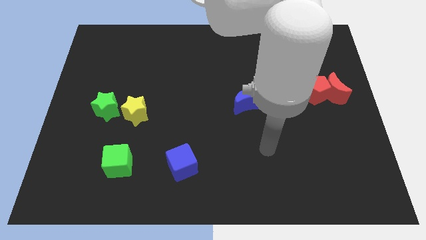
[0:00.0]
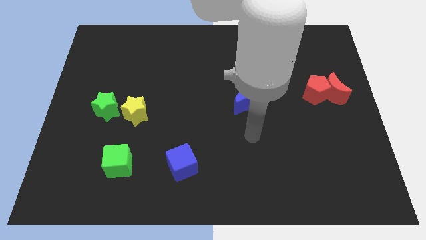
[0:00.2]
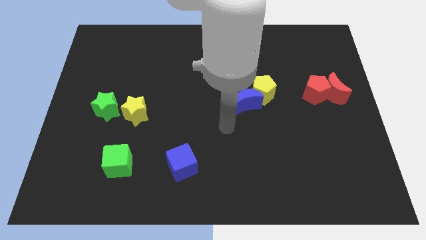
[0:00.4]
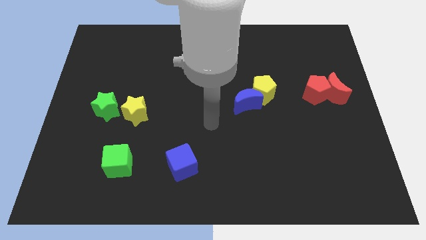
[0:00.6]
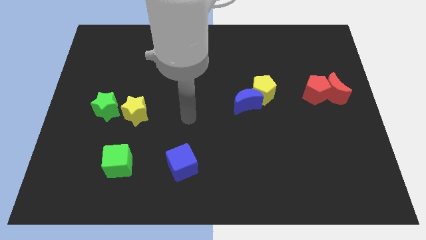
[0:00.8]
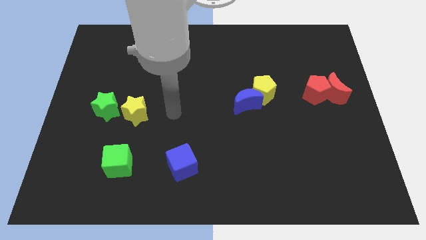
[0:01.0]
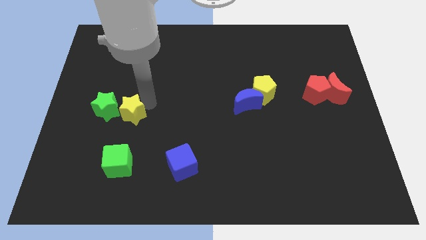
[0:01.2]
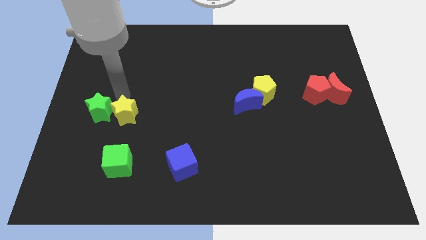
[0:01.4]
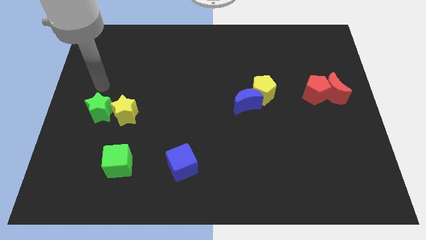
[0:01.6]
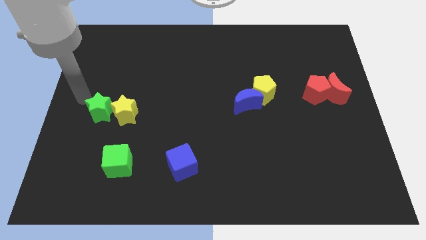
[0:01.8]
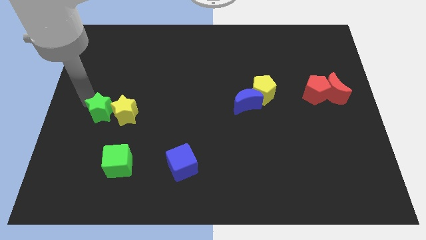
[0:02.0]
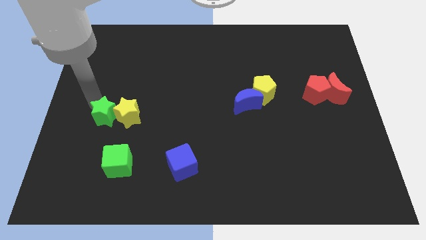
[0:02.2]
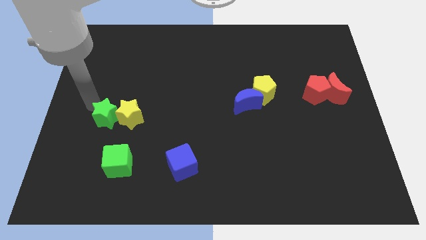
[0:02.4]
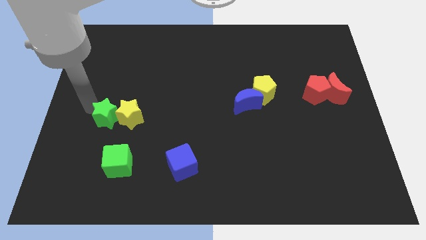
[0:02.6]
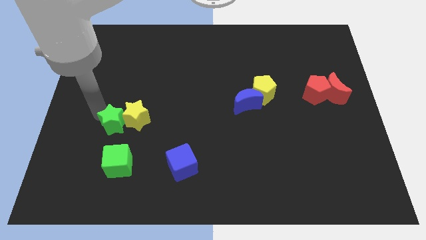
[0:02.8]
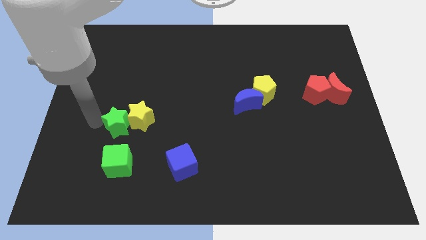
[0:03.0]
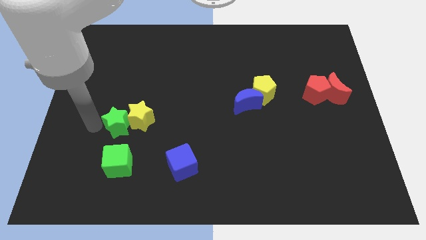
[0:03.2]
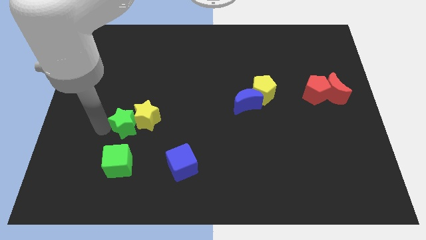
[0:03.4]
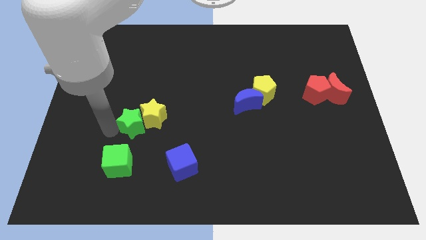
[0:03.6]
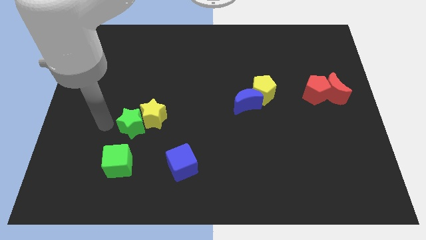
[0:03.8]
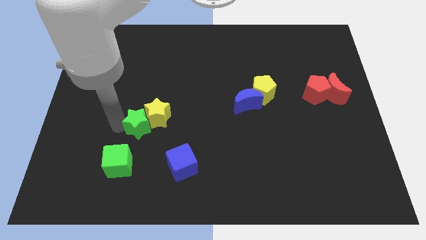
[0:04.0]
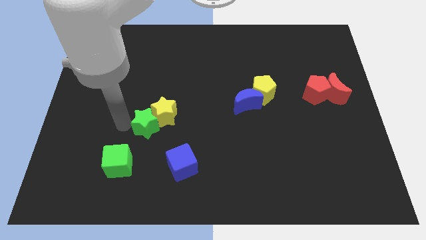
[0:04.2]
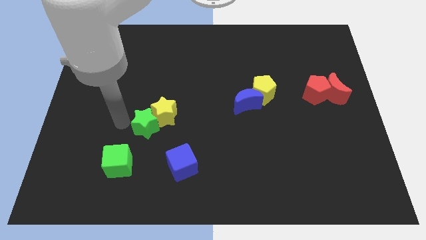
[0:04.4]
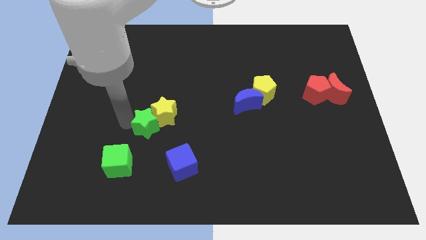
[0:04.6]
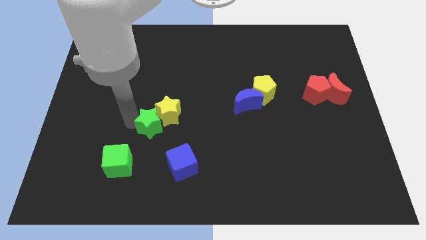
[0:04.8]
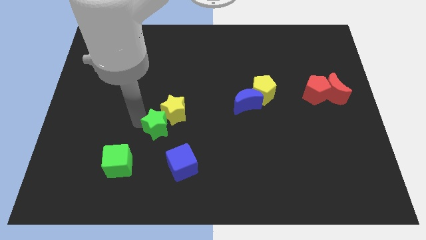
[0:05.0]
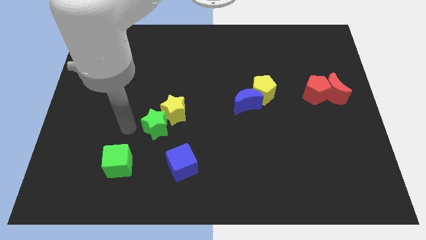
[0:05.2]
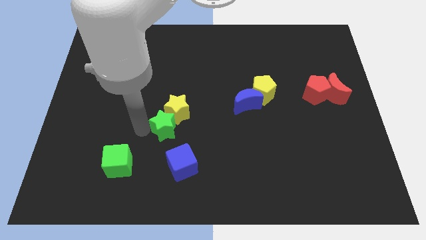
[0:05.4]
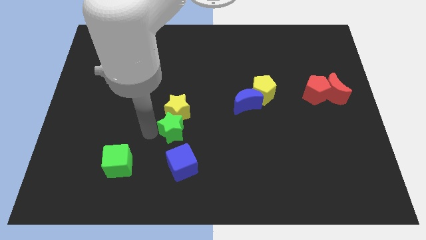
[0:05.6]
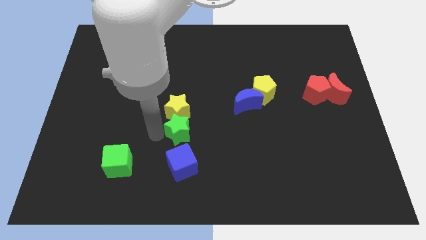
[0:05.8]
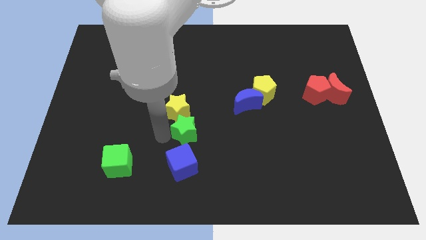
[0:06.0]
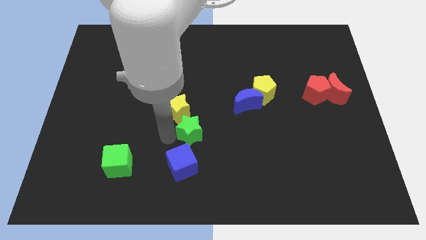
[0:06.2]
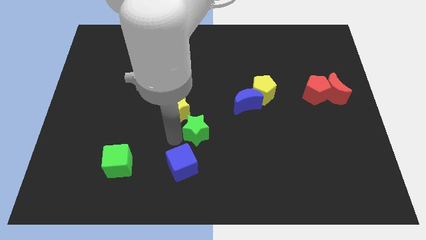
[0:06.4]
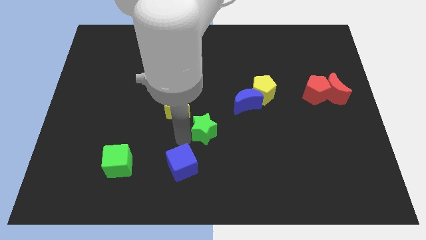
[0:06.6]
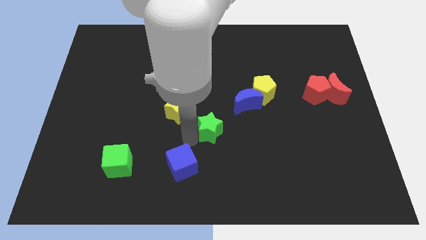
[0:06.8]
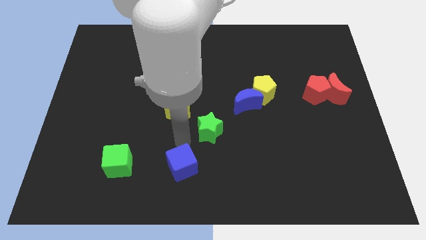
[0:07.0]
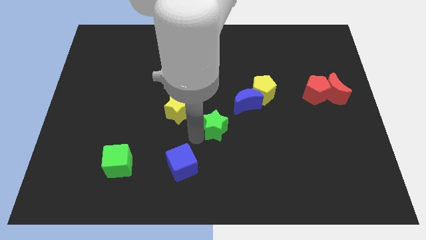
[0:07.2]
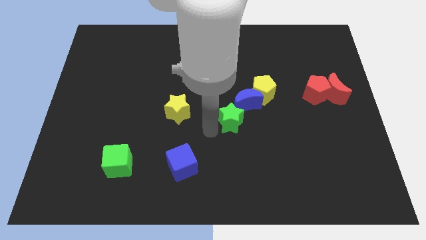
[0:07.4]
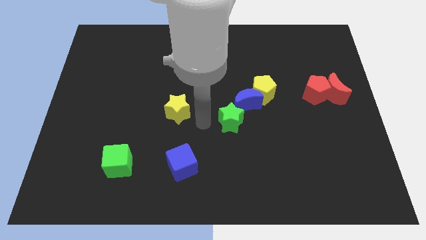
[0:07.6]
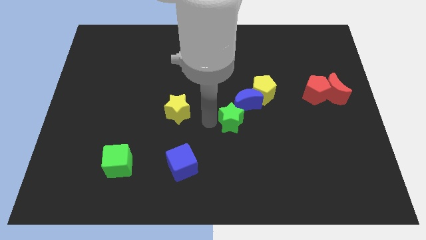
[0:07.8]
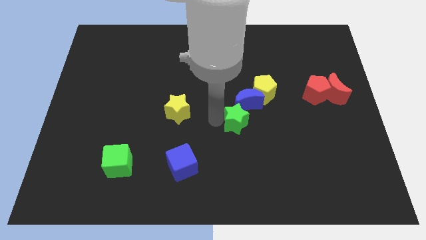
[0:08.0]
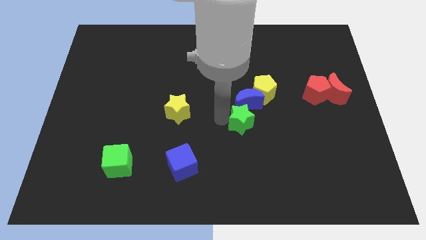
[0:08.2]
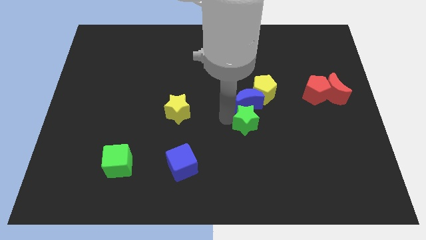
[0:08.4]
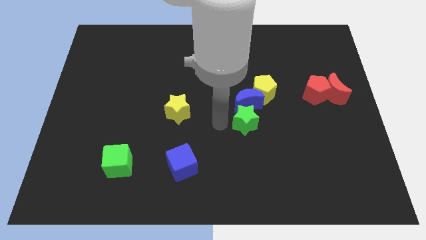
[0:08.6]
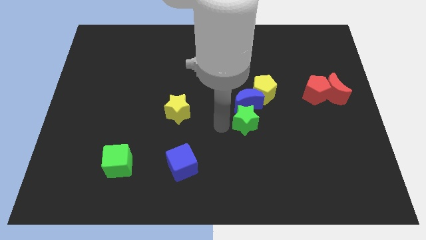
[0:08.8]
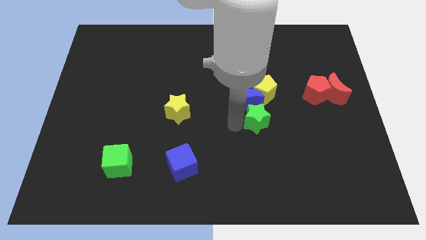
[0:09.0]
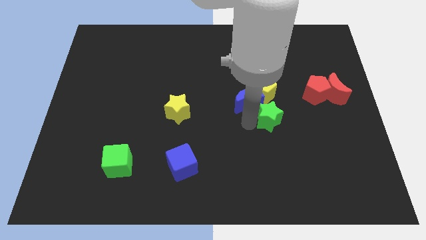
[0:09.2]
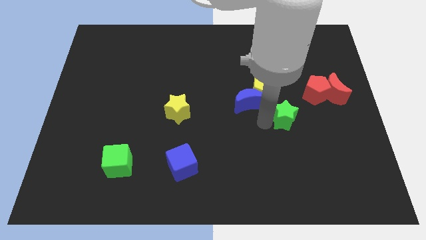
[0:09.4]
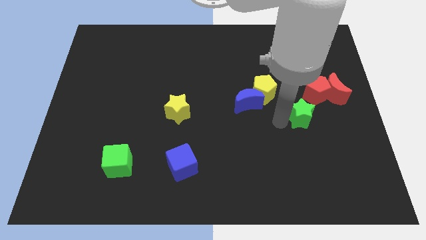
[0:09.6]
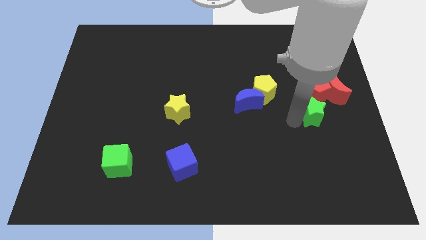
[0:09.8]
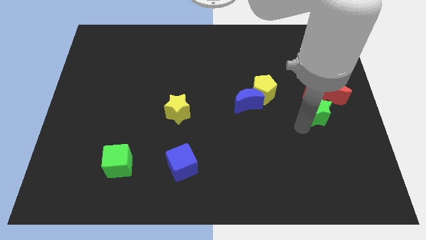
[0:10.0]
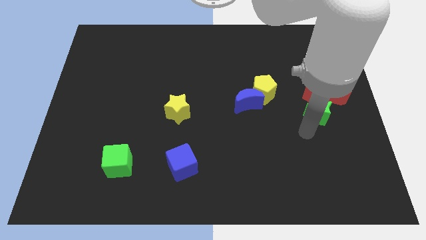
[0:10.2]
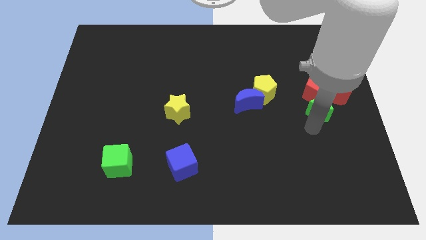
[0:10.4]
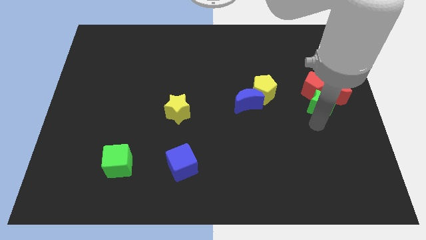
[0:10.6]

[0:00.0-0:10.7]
move the green star close to the red moon

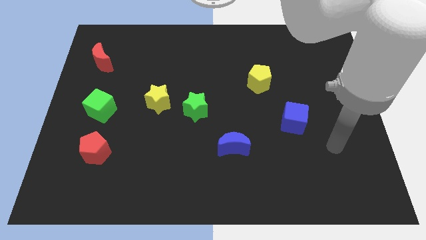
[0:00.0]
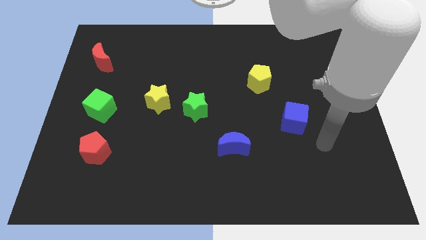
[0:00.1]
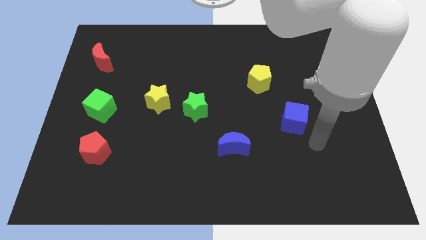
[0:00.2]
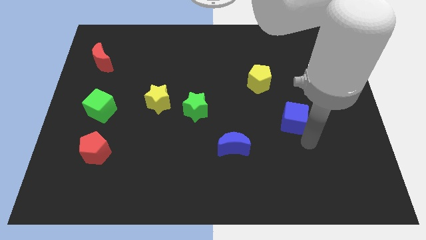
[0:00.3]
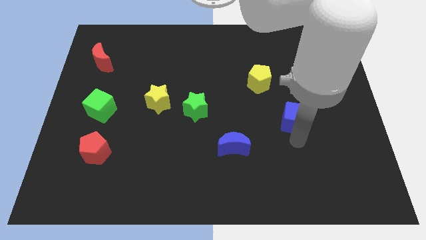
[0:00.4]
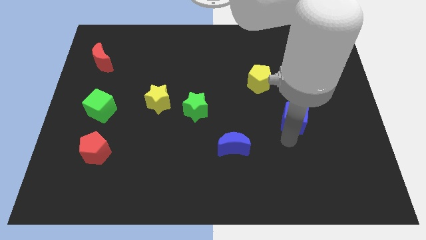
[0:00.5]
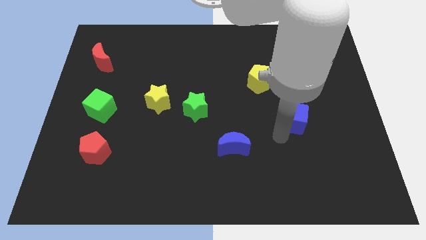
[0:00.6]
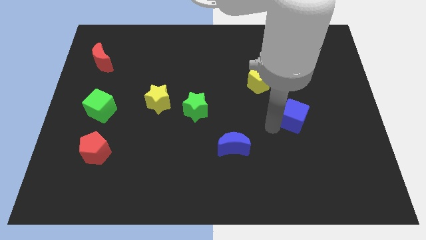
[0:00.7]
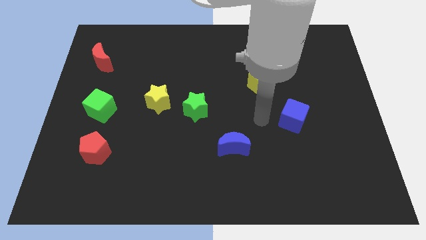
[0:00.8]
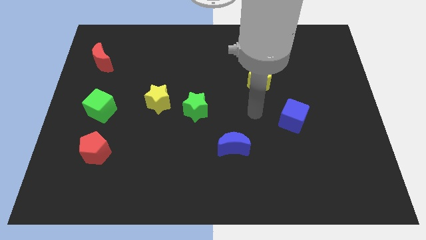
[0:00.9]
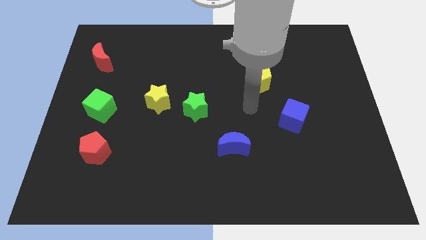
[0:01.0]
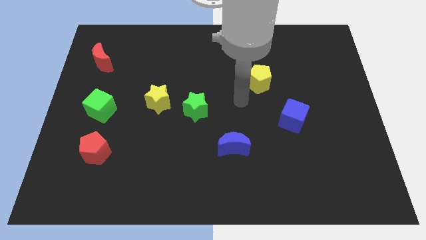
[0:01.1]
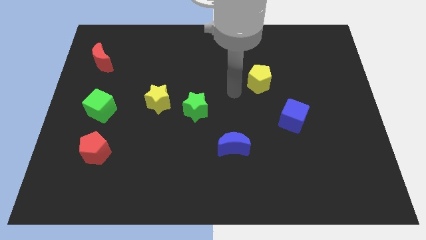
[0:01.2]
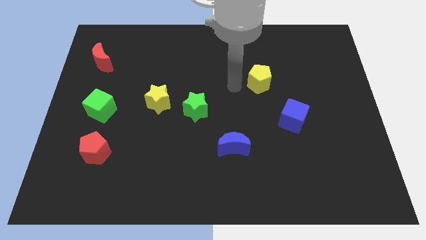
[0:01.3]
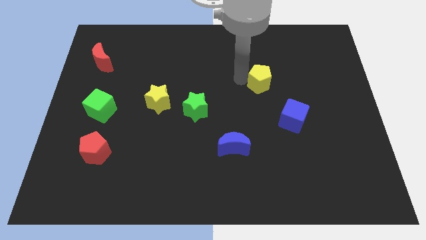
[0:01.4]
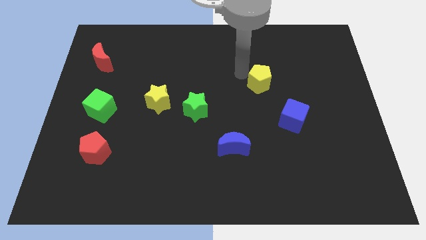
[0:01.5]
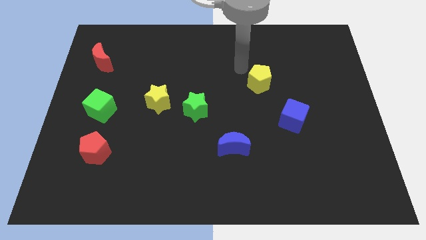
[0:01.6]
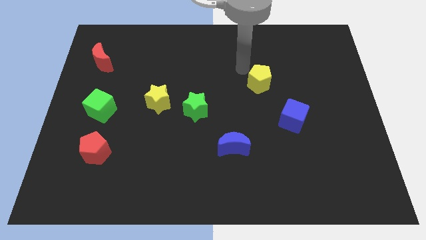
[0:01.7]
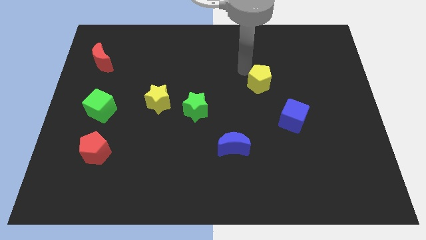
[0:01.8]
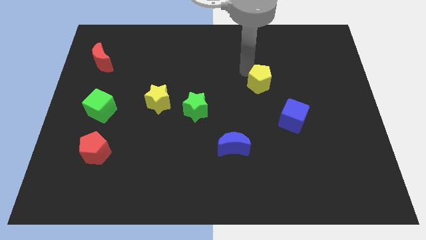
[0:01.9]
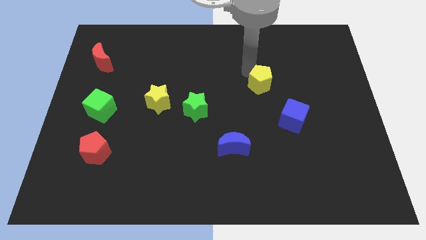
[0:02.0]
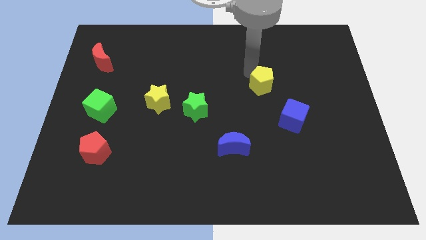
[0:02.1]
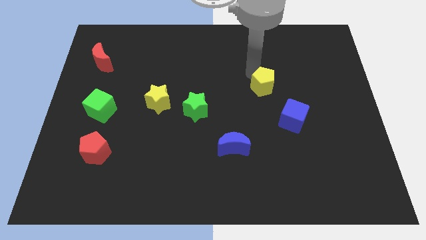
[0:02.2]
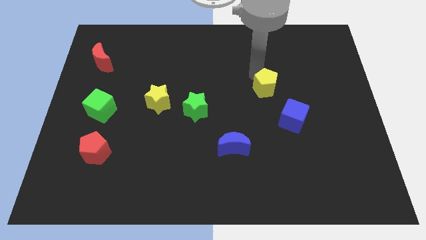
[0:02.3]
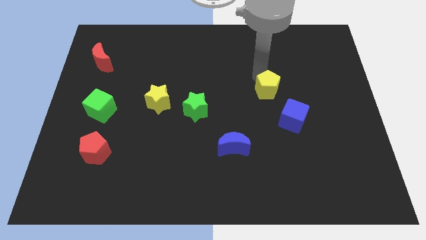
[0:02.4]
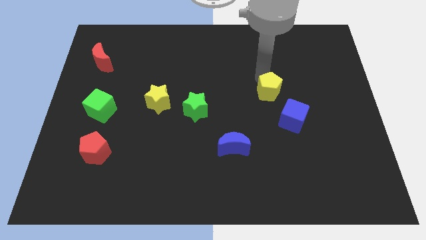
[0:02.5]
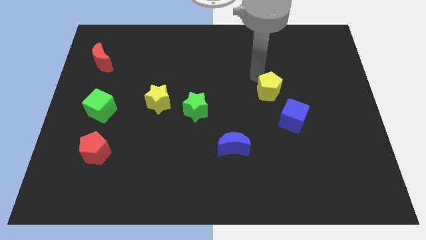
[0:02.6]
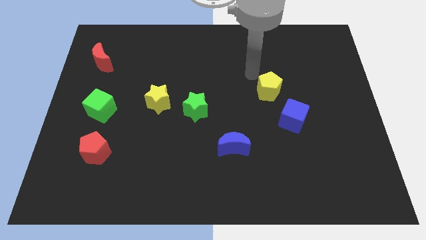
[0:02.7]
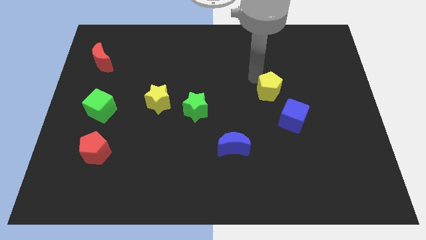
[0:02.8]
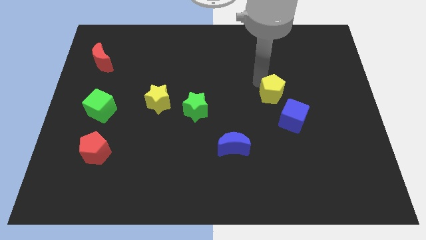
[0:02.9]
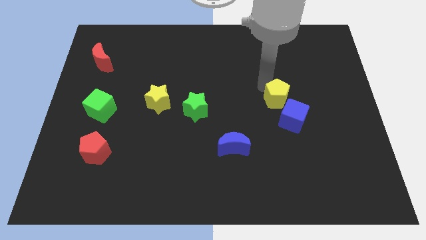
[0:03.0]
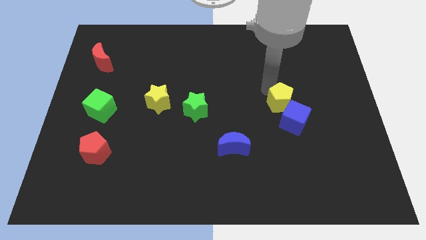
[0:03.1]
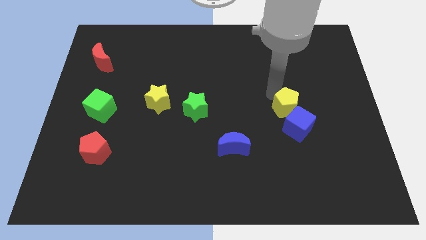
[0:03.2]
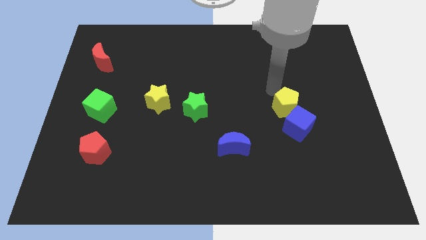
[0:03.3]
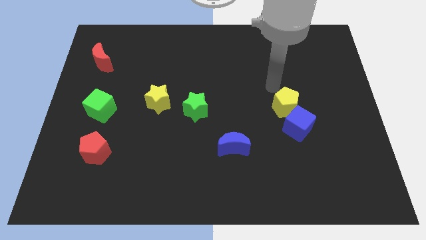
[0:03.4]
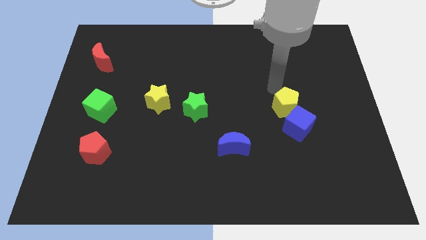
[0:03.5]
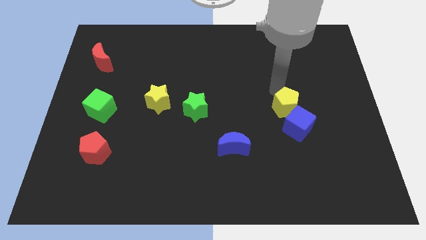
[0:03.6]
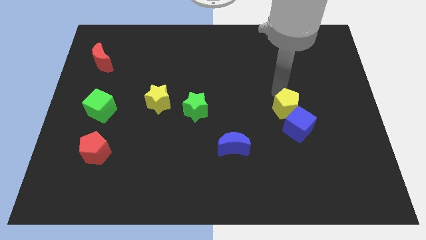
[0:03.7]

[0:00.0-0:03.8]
put the yellow pentagon to the blue cube
